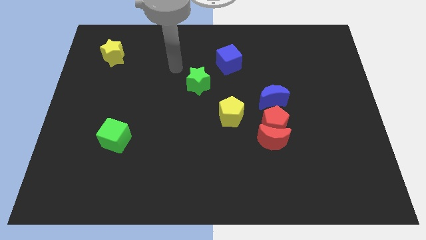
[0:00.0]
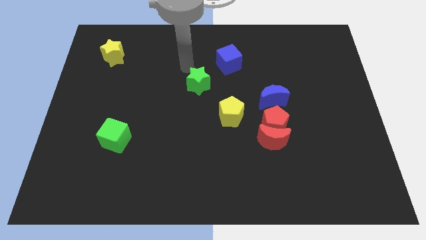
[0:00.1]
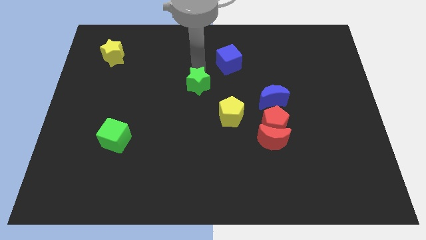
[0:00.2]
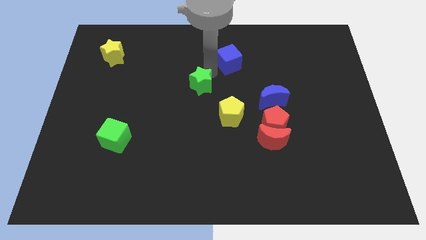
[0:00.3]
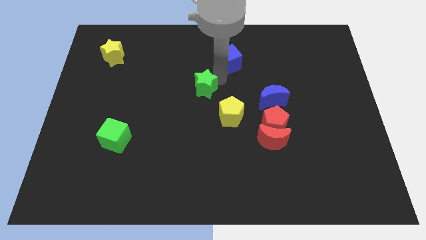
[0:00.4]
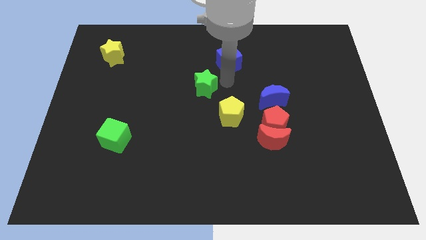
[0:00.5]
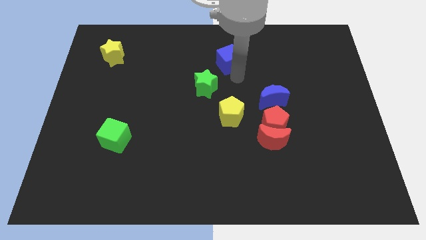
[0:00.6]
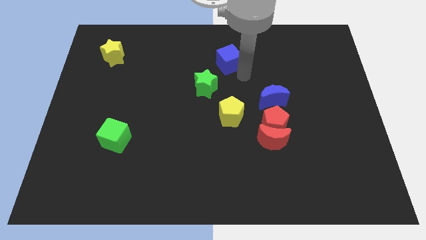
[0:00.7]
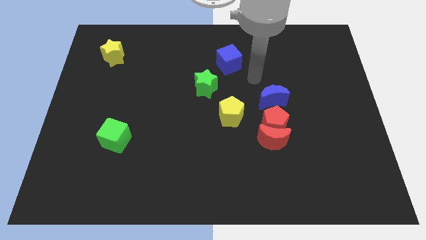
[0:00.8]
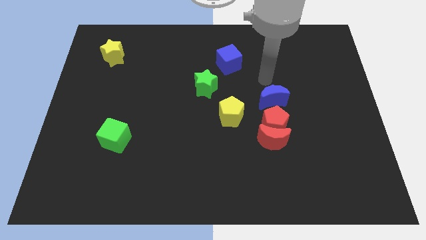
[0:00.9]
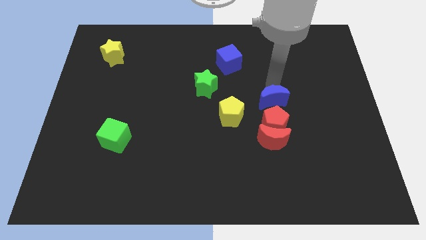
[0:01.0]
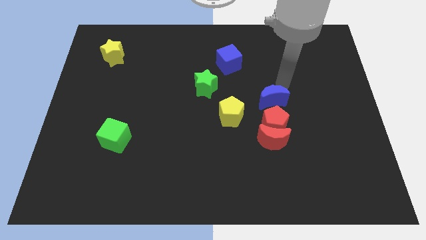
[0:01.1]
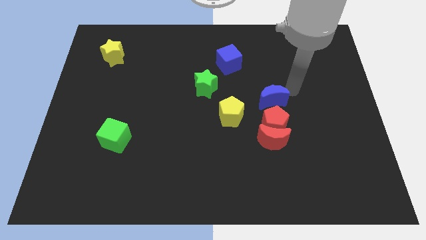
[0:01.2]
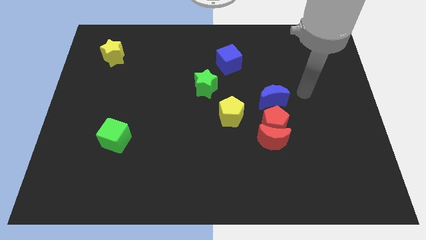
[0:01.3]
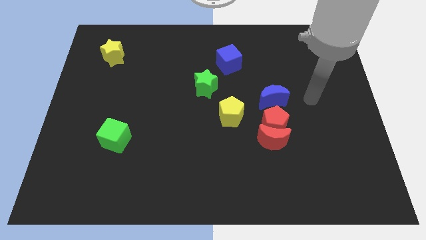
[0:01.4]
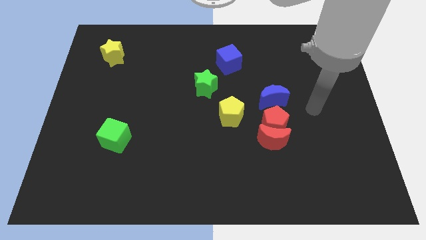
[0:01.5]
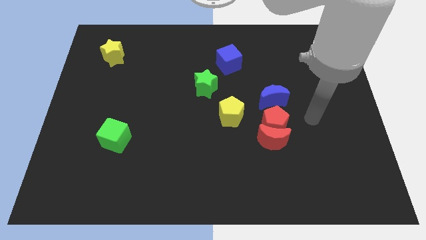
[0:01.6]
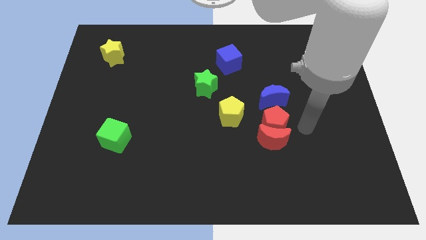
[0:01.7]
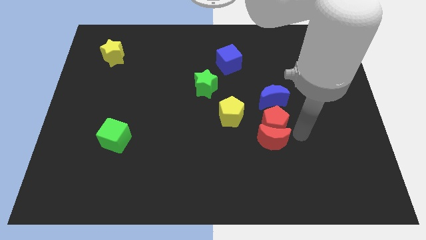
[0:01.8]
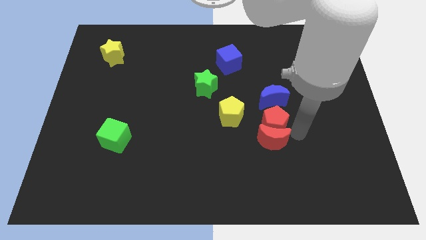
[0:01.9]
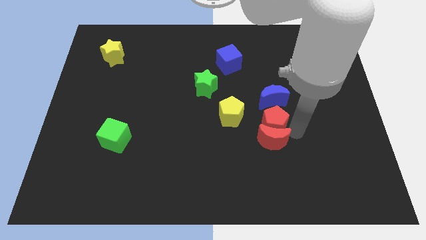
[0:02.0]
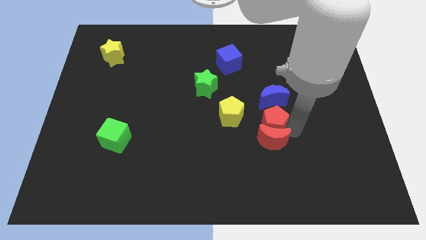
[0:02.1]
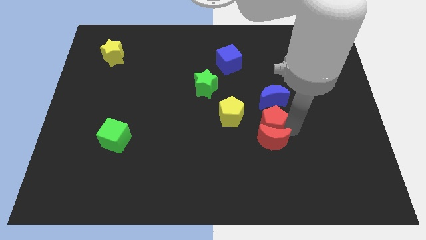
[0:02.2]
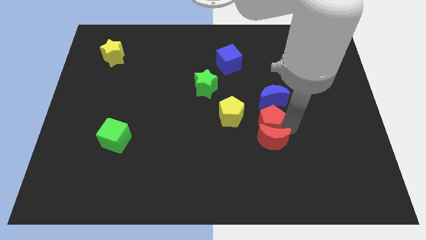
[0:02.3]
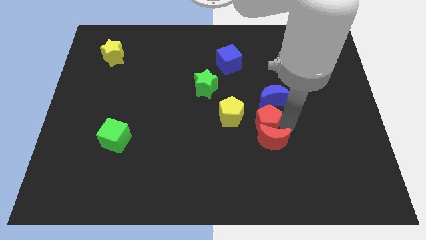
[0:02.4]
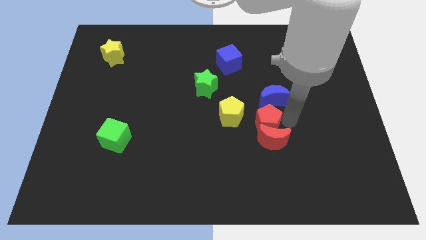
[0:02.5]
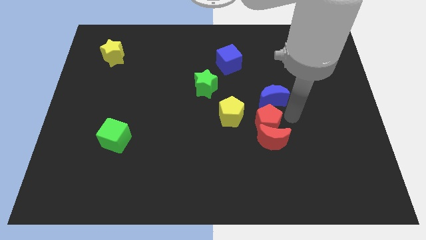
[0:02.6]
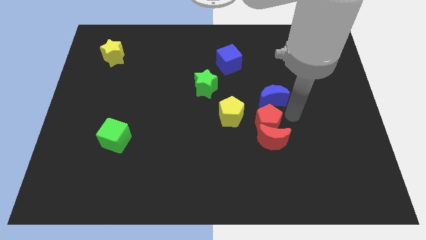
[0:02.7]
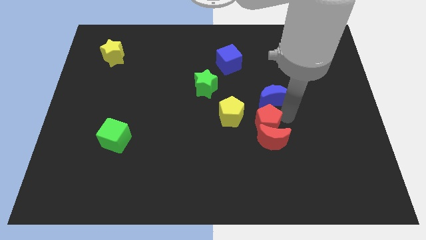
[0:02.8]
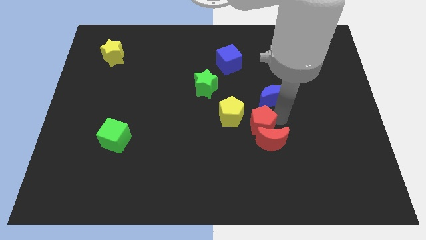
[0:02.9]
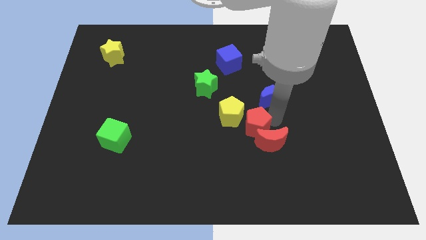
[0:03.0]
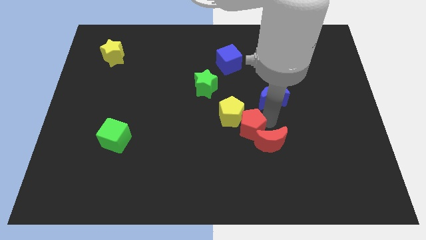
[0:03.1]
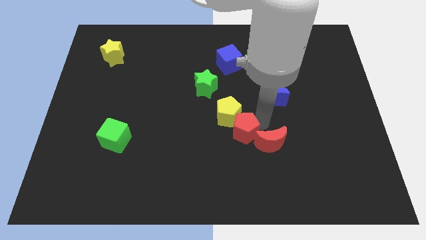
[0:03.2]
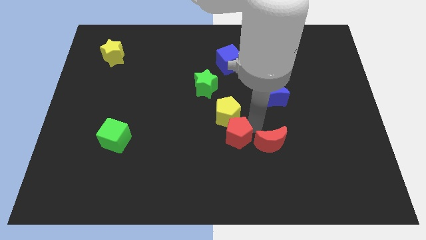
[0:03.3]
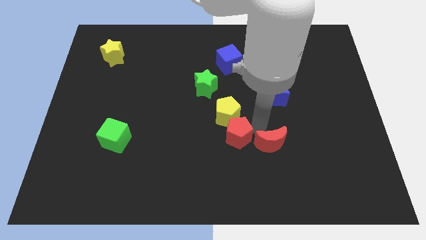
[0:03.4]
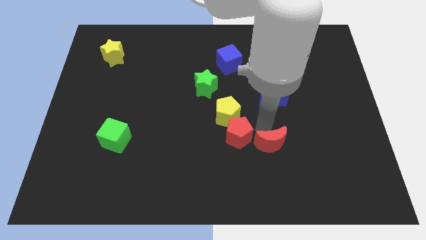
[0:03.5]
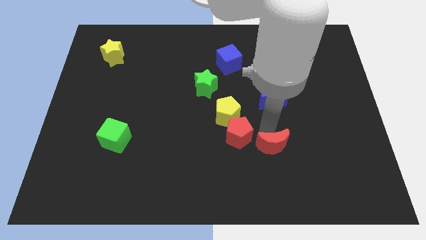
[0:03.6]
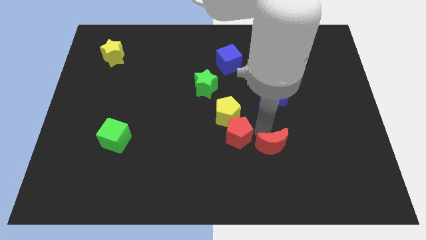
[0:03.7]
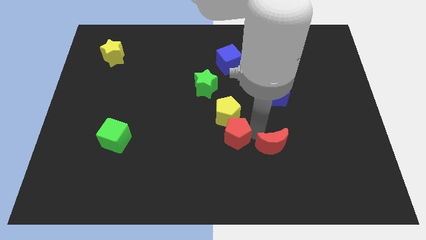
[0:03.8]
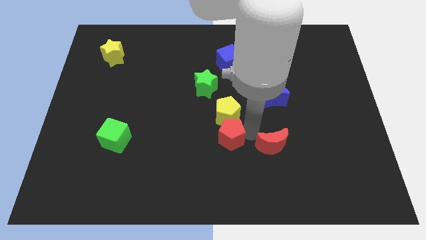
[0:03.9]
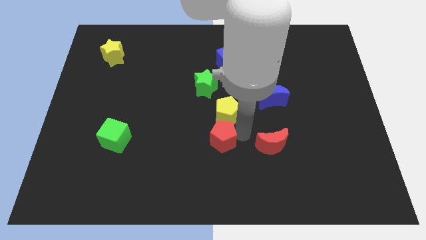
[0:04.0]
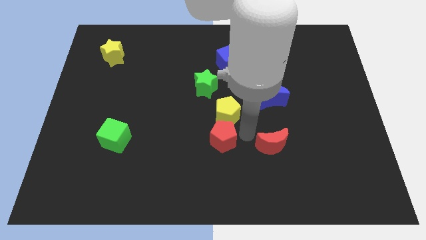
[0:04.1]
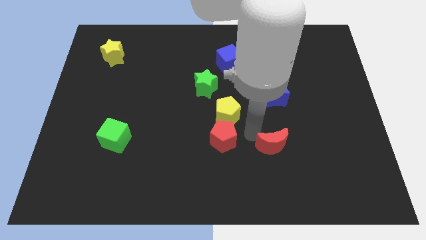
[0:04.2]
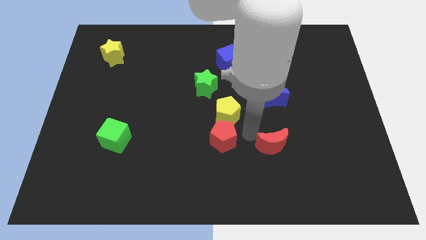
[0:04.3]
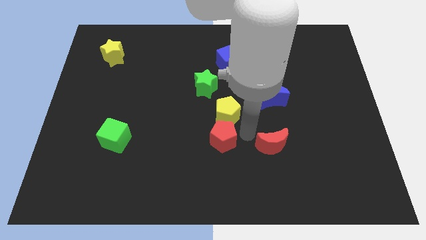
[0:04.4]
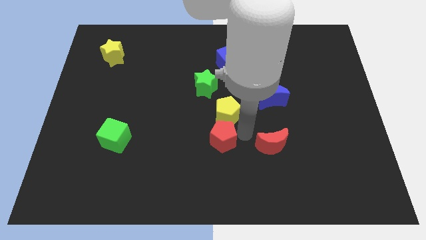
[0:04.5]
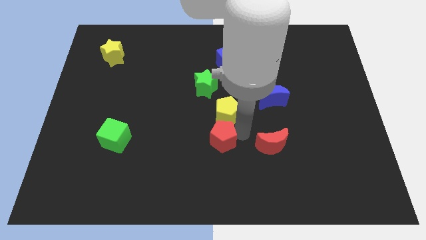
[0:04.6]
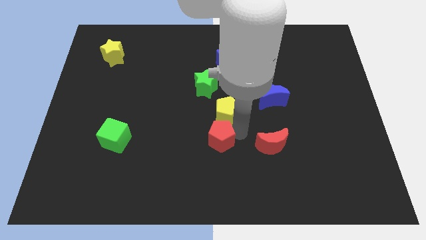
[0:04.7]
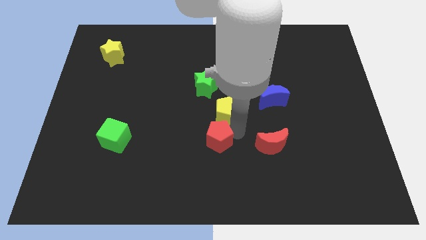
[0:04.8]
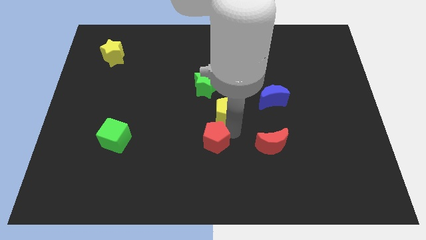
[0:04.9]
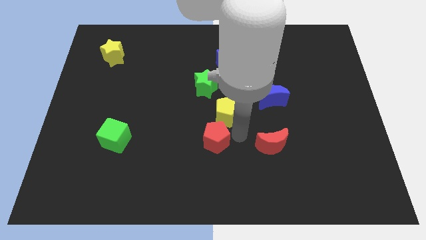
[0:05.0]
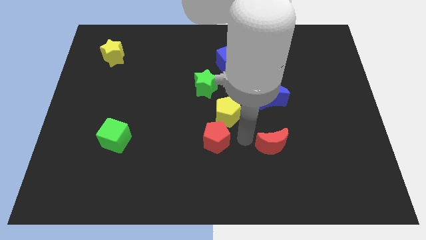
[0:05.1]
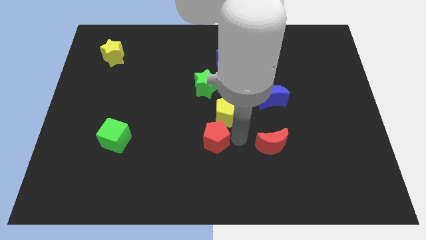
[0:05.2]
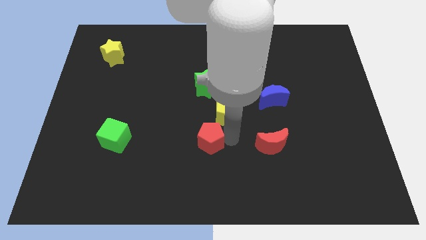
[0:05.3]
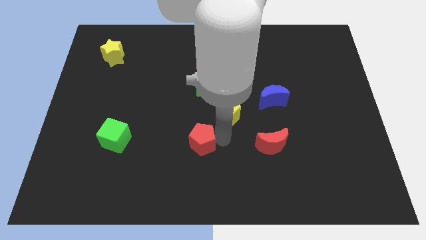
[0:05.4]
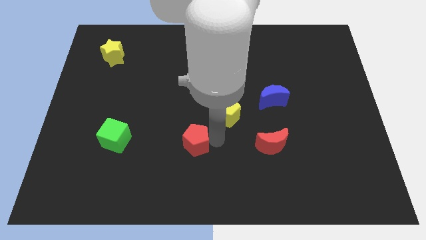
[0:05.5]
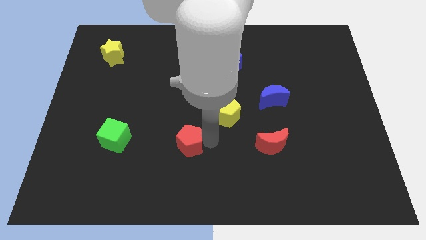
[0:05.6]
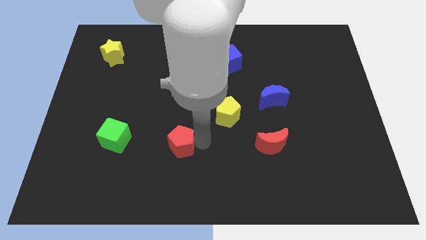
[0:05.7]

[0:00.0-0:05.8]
move the red pentagon to the right side of the green cube

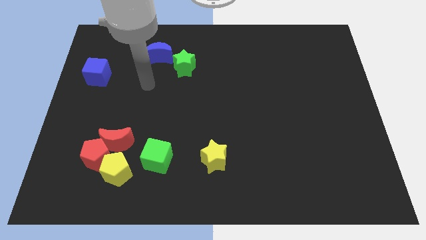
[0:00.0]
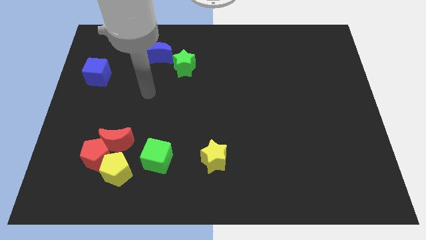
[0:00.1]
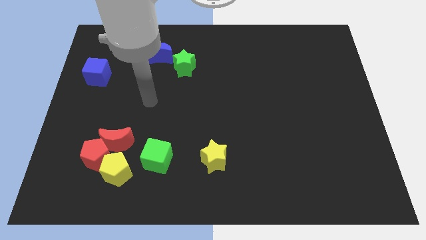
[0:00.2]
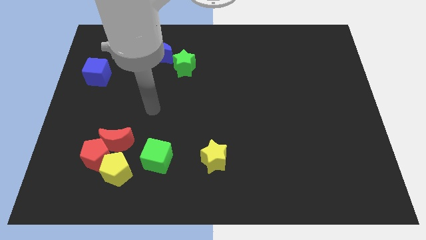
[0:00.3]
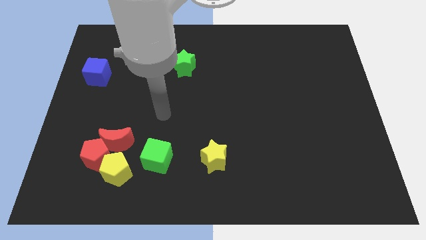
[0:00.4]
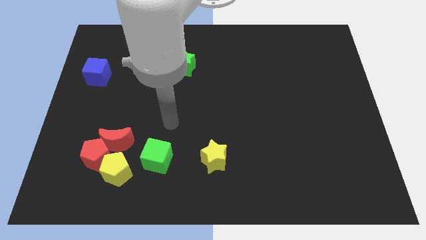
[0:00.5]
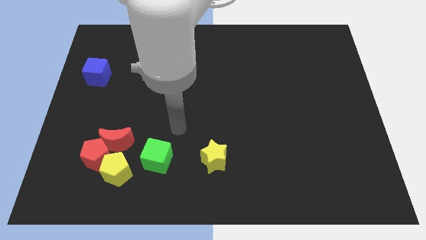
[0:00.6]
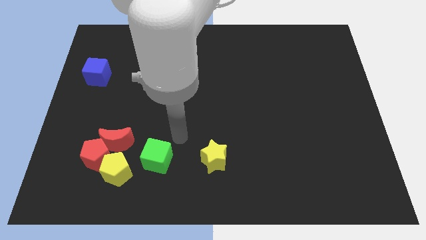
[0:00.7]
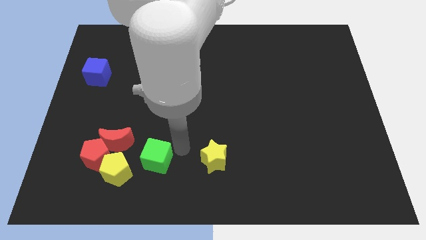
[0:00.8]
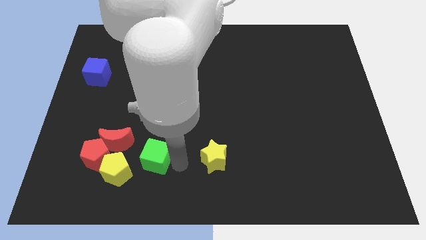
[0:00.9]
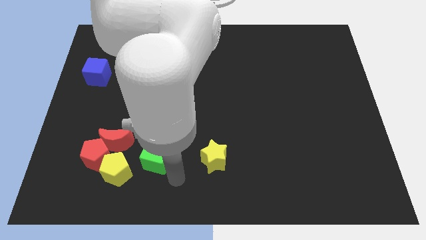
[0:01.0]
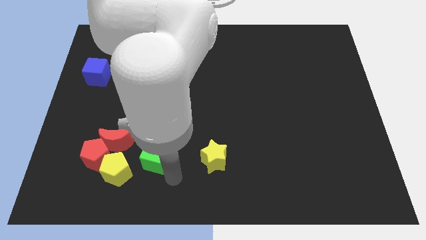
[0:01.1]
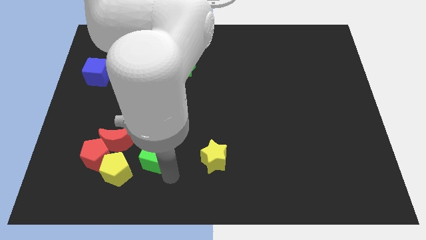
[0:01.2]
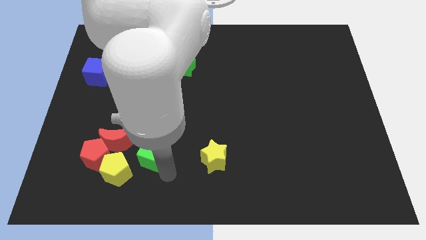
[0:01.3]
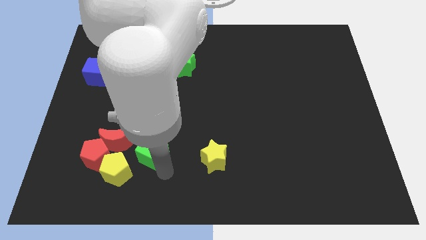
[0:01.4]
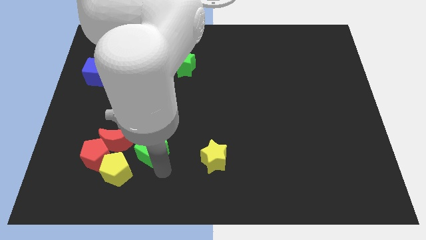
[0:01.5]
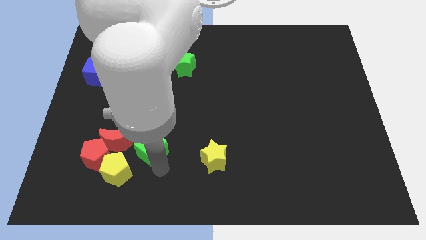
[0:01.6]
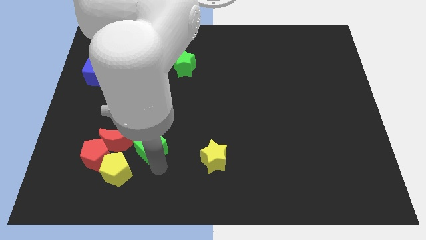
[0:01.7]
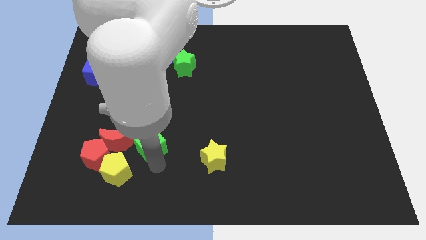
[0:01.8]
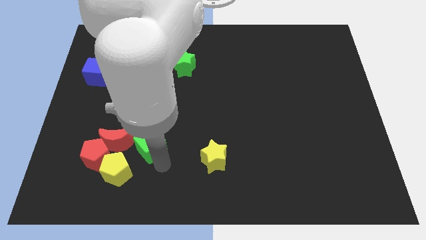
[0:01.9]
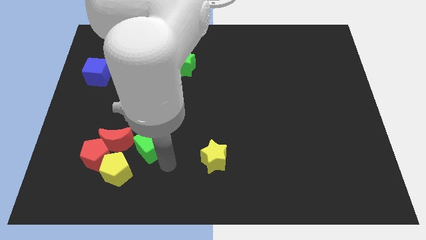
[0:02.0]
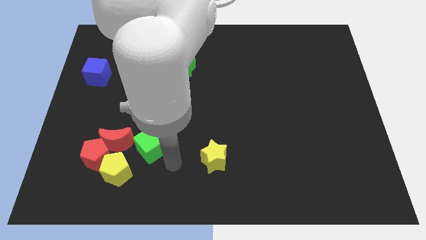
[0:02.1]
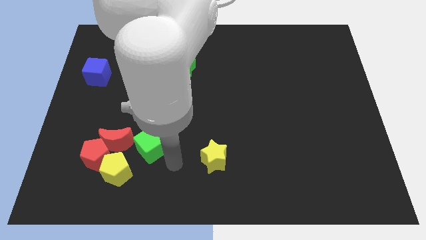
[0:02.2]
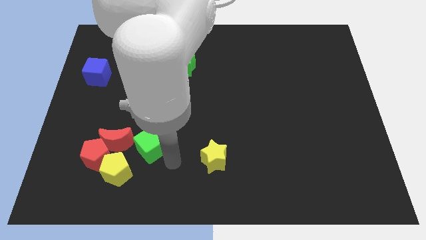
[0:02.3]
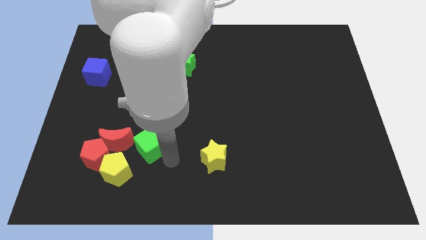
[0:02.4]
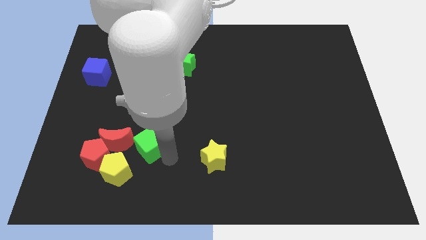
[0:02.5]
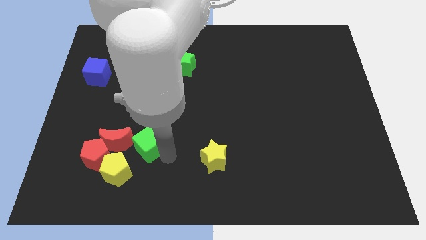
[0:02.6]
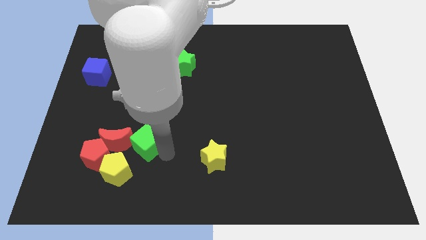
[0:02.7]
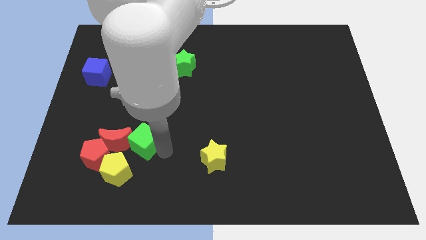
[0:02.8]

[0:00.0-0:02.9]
slide the green cube diagonally up and to the right of the red pentagon
